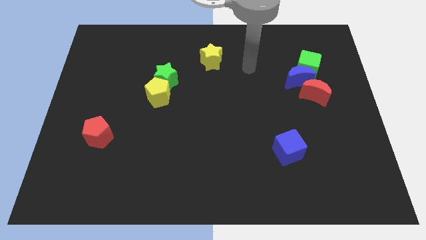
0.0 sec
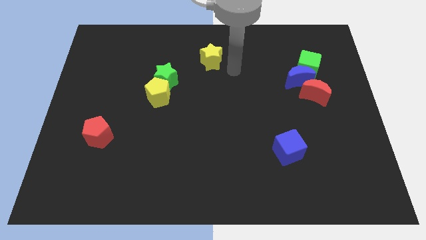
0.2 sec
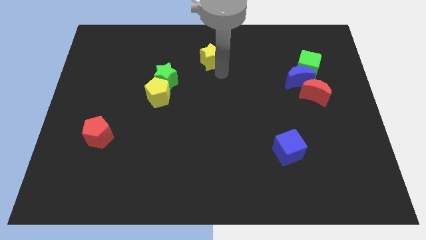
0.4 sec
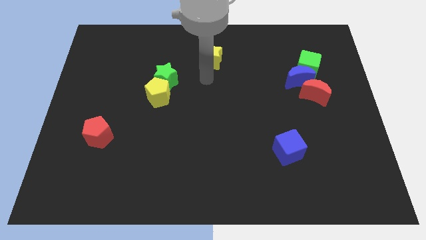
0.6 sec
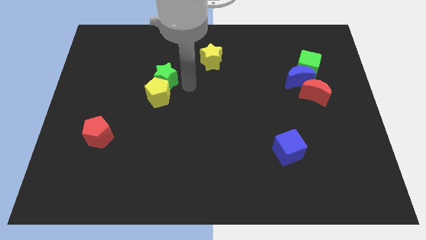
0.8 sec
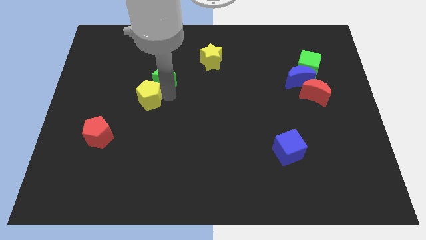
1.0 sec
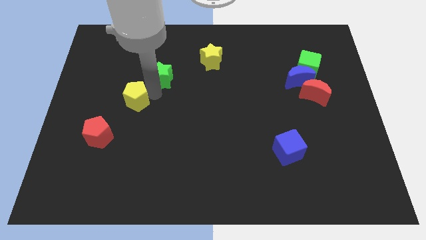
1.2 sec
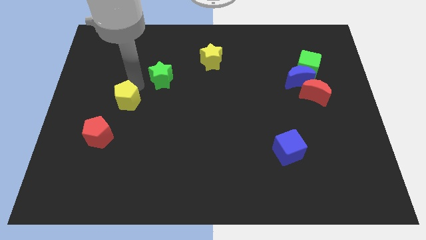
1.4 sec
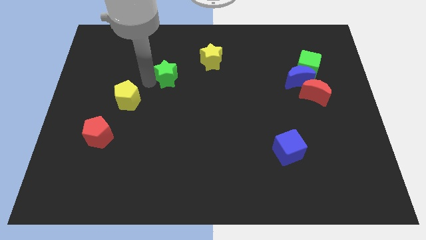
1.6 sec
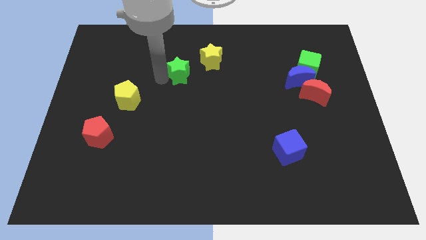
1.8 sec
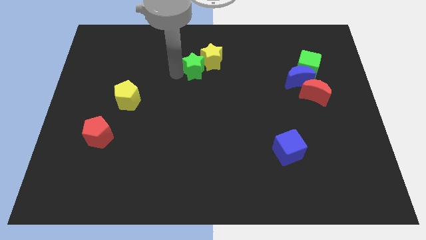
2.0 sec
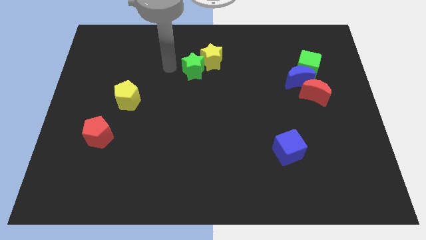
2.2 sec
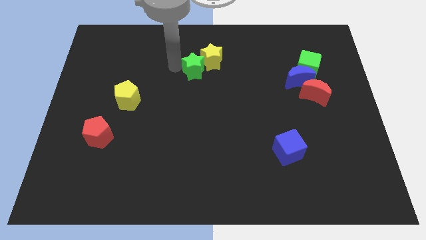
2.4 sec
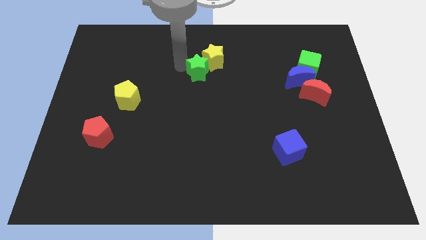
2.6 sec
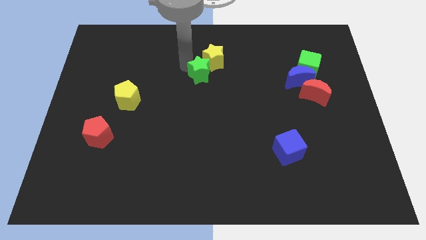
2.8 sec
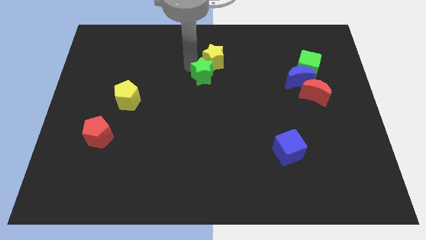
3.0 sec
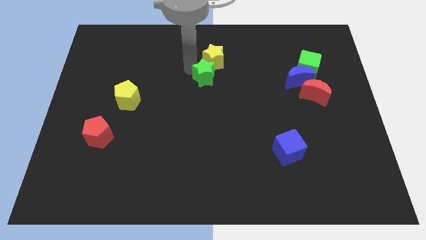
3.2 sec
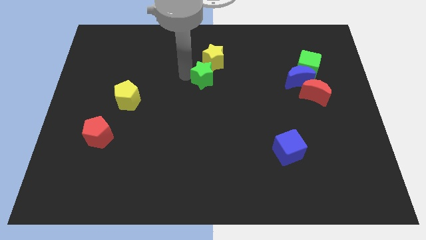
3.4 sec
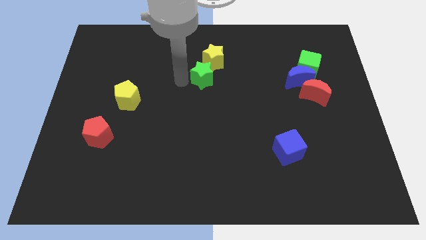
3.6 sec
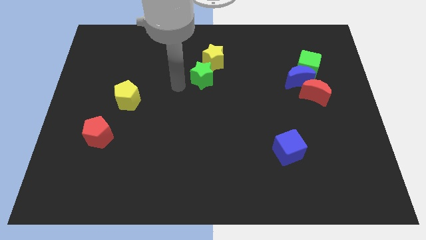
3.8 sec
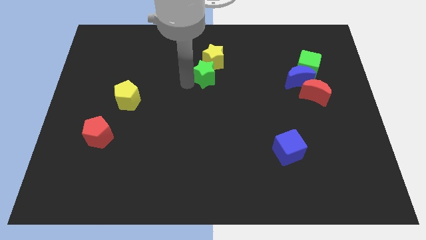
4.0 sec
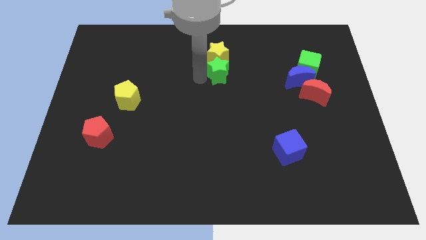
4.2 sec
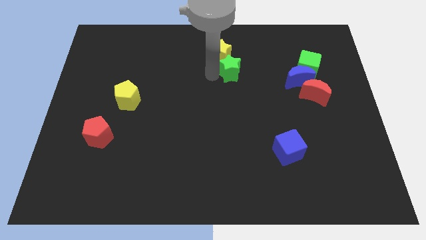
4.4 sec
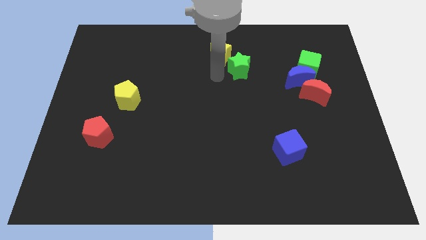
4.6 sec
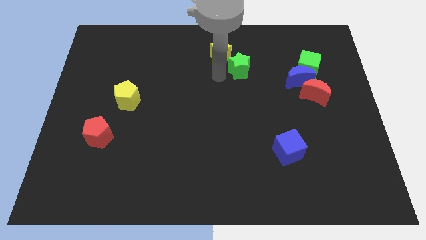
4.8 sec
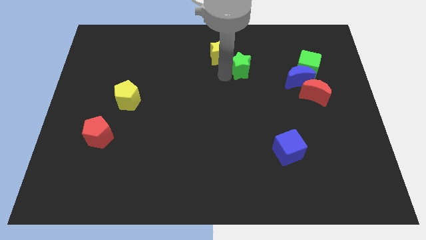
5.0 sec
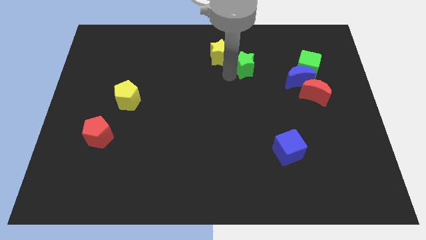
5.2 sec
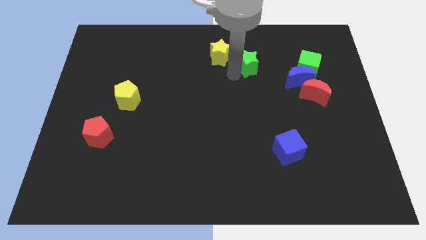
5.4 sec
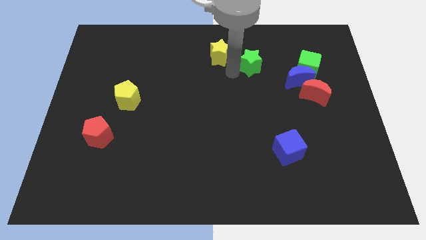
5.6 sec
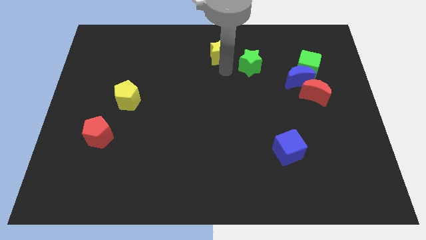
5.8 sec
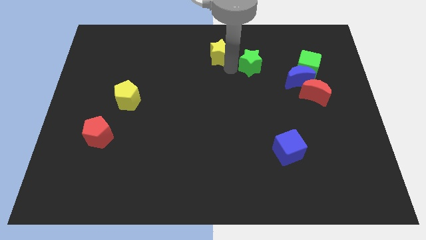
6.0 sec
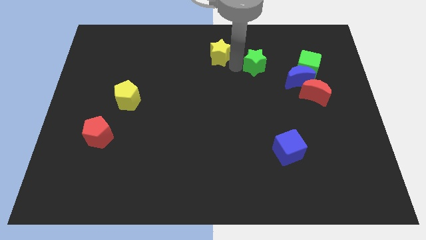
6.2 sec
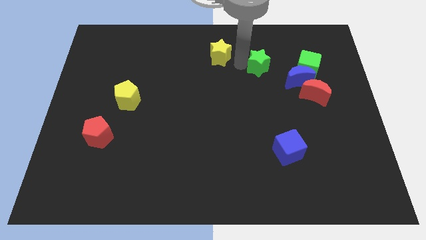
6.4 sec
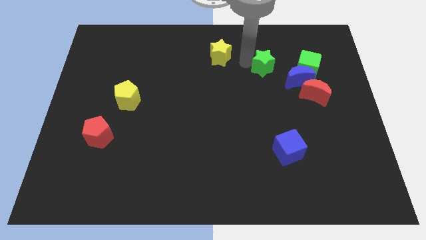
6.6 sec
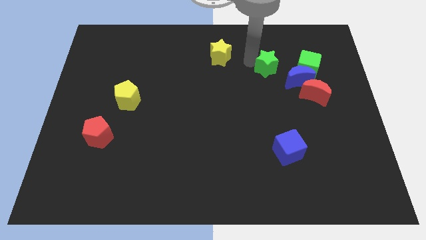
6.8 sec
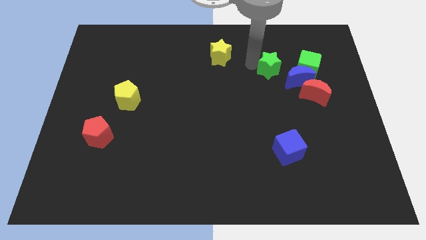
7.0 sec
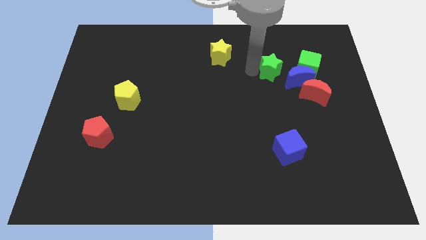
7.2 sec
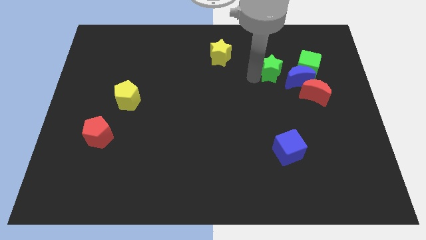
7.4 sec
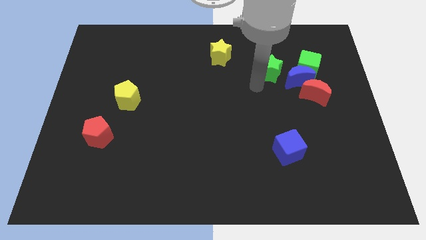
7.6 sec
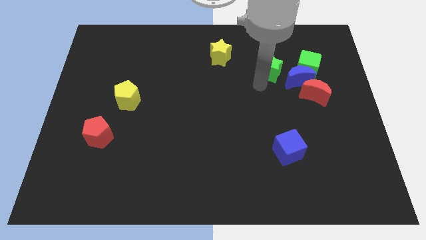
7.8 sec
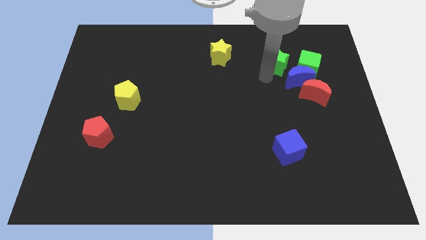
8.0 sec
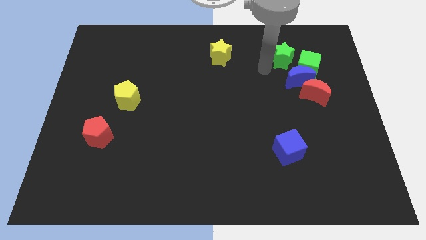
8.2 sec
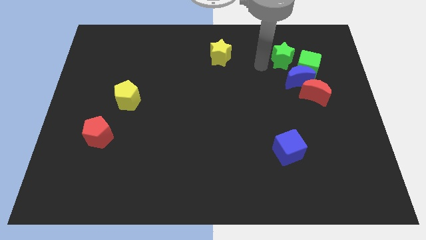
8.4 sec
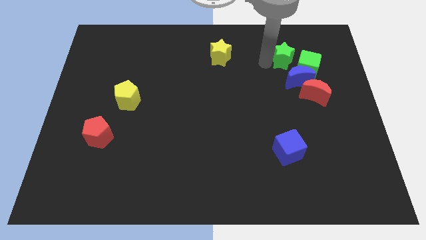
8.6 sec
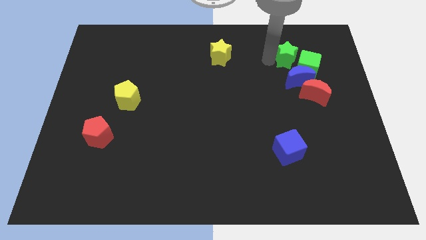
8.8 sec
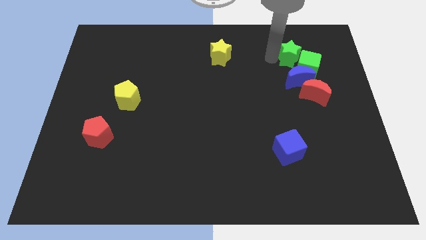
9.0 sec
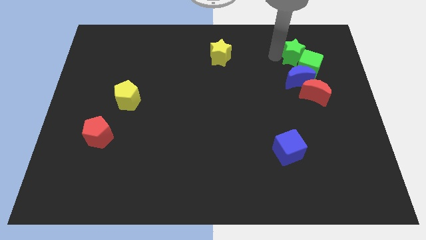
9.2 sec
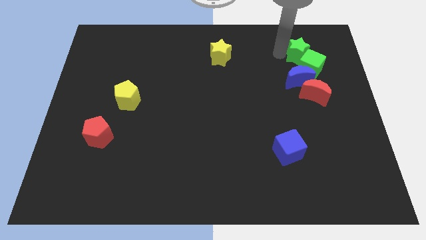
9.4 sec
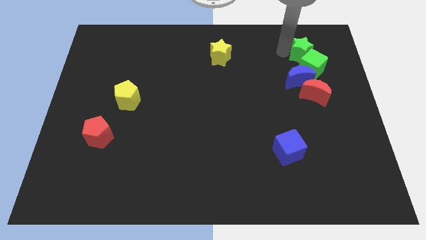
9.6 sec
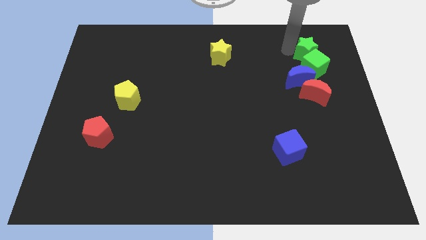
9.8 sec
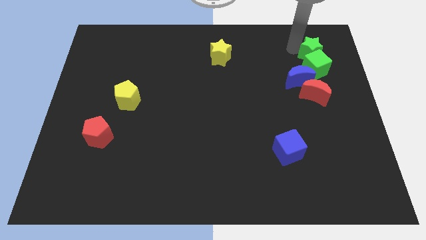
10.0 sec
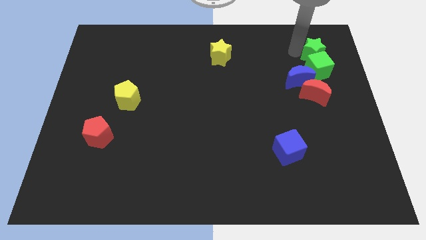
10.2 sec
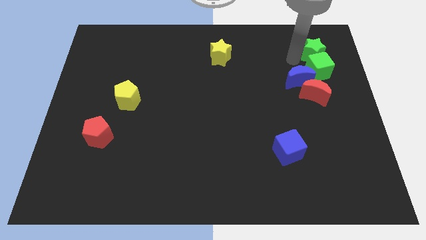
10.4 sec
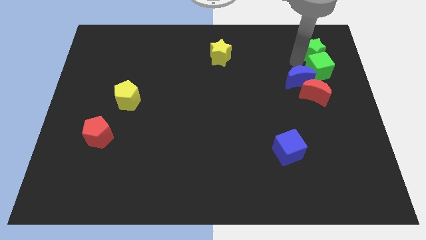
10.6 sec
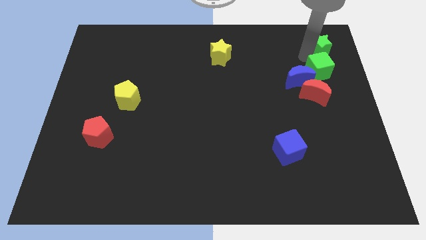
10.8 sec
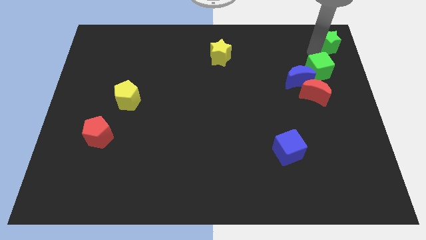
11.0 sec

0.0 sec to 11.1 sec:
slide the green star to the upper right corner

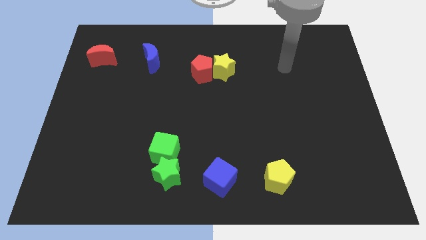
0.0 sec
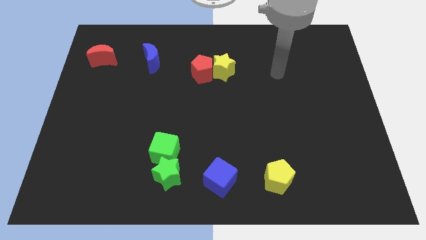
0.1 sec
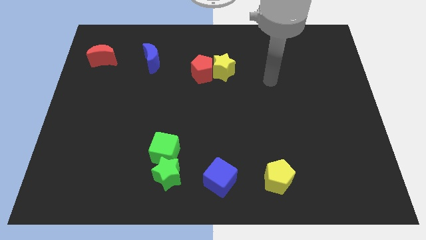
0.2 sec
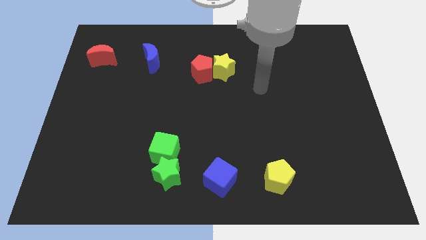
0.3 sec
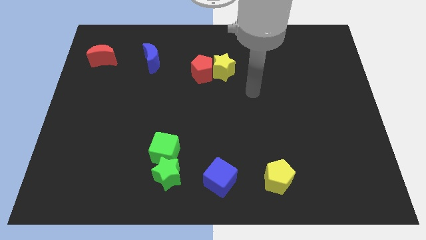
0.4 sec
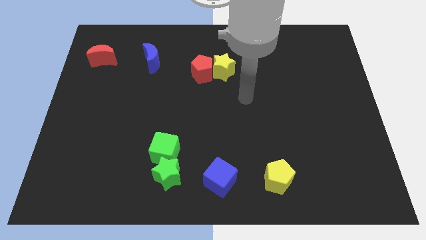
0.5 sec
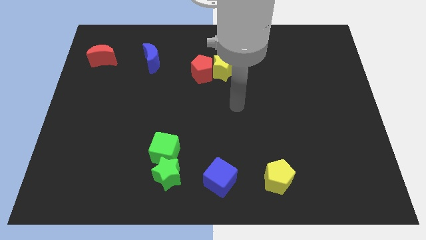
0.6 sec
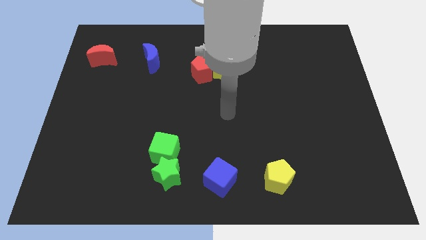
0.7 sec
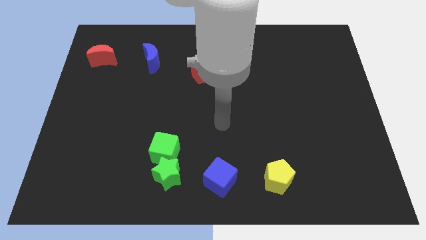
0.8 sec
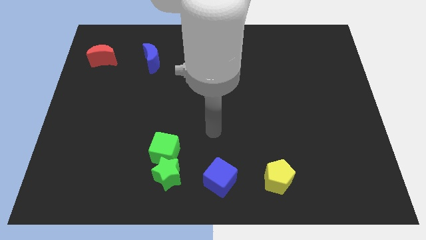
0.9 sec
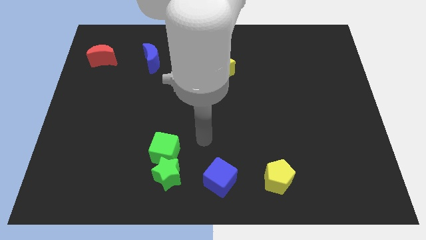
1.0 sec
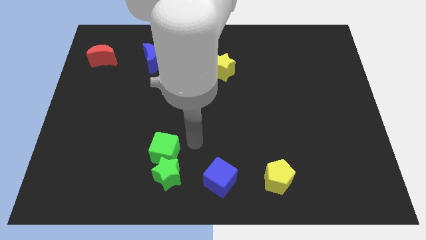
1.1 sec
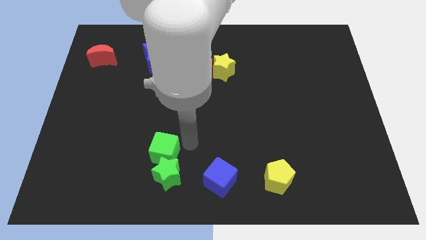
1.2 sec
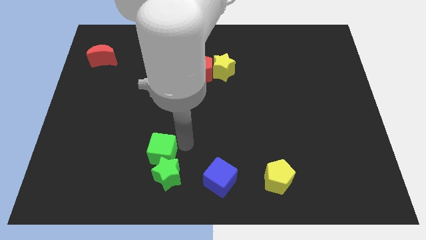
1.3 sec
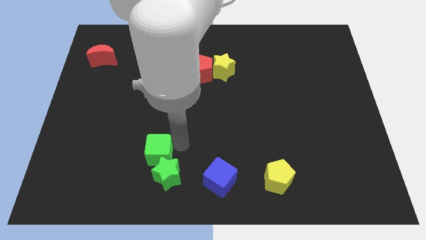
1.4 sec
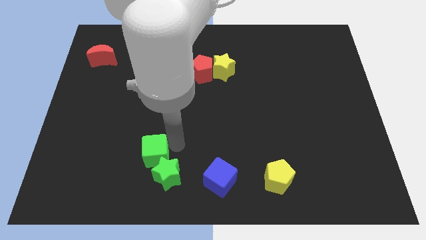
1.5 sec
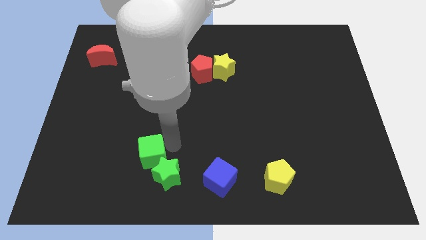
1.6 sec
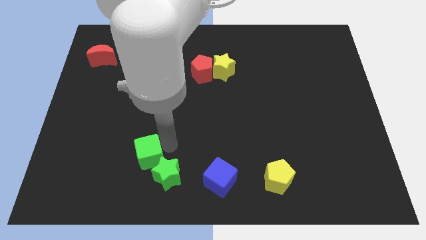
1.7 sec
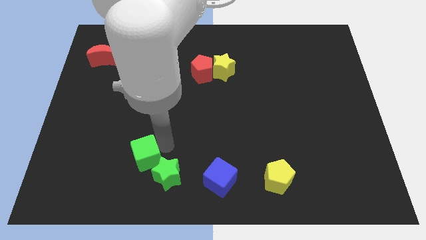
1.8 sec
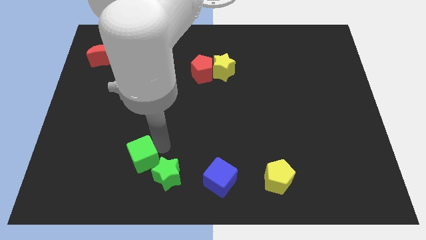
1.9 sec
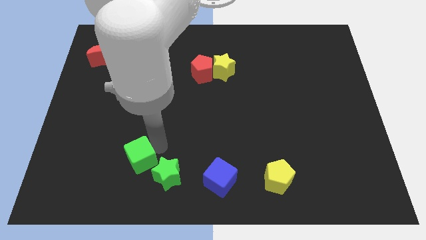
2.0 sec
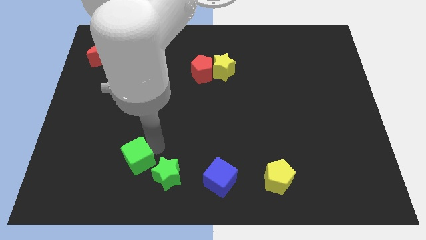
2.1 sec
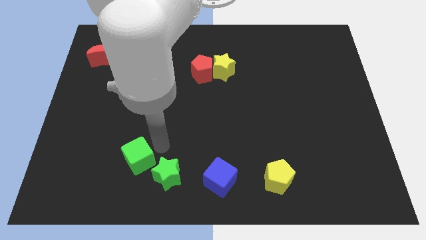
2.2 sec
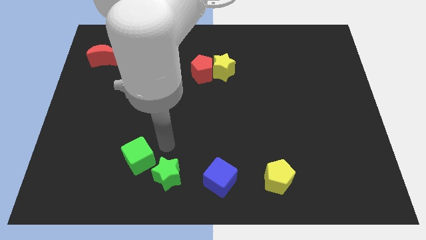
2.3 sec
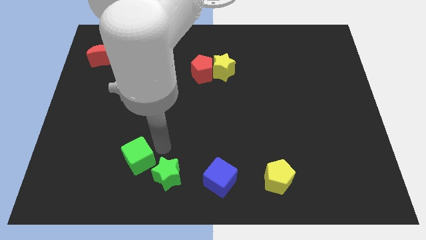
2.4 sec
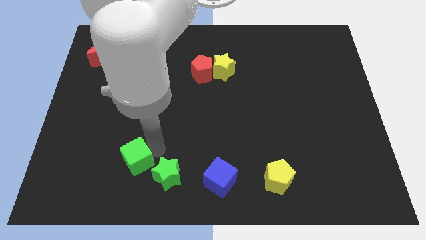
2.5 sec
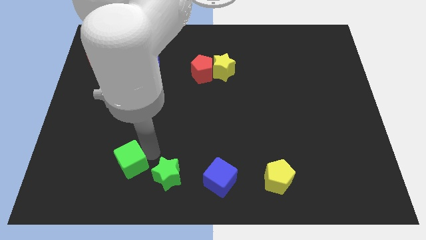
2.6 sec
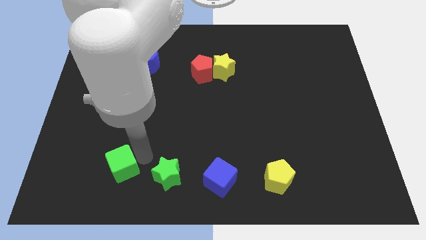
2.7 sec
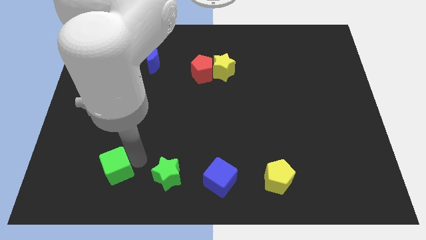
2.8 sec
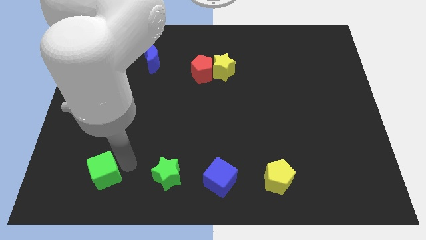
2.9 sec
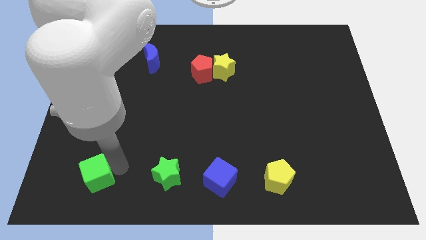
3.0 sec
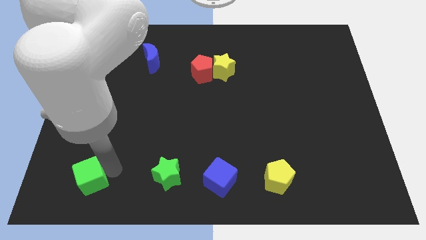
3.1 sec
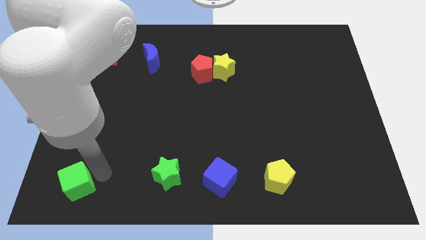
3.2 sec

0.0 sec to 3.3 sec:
put the green cube to the lower left corner
